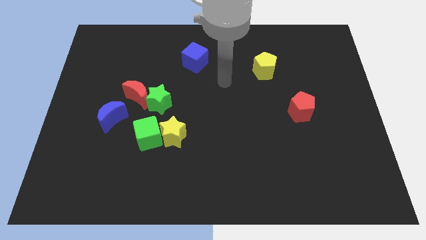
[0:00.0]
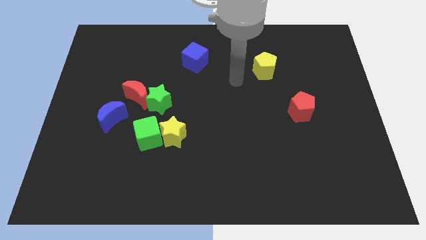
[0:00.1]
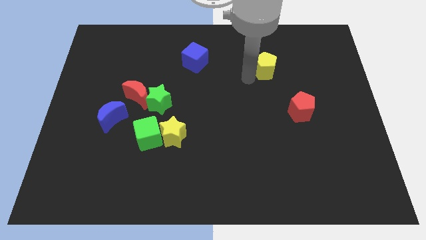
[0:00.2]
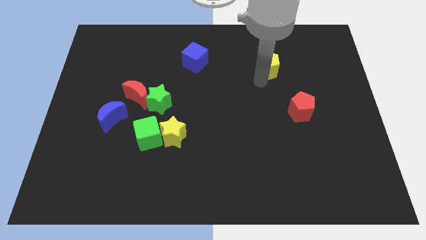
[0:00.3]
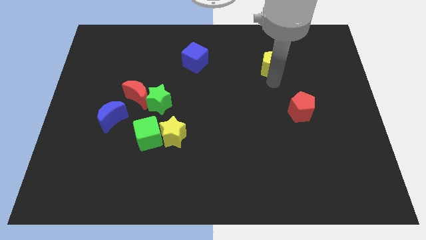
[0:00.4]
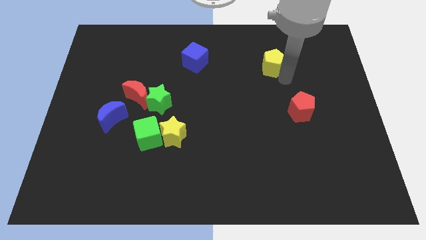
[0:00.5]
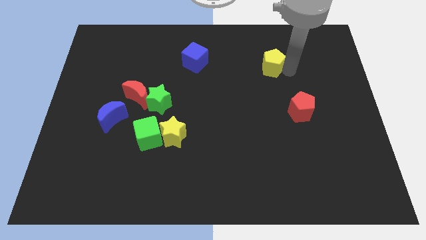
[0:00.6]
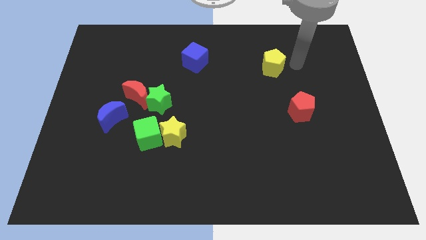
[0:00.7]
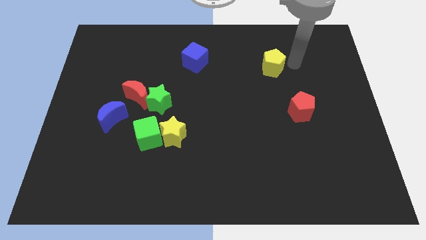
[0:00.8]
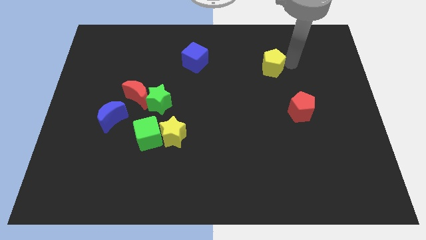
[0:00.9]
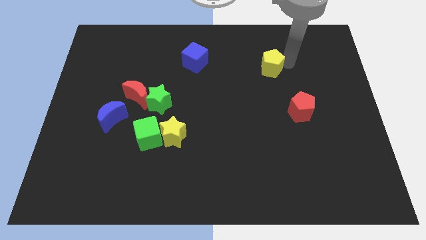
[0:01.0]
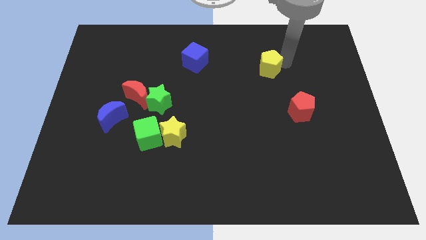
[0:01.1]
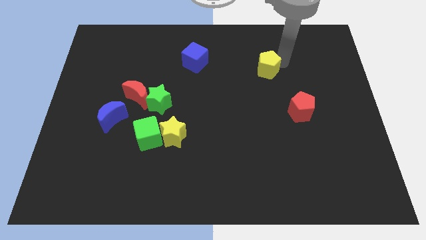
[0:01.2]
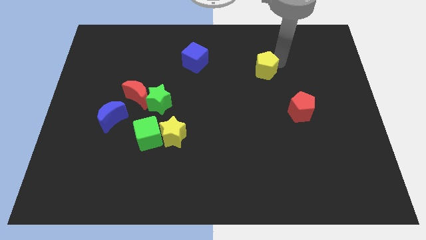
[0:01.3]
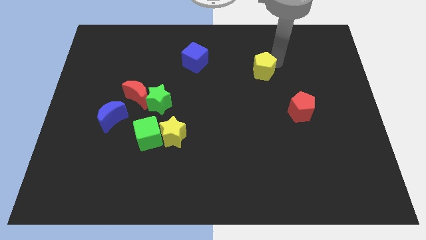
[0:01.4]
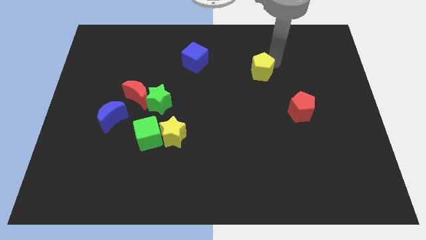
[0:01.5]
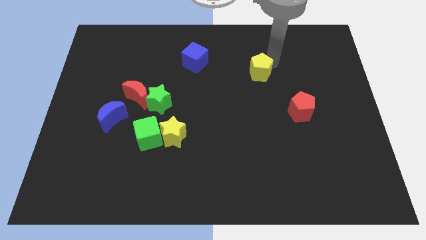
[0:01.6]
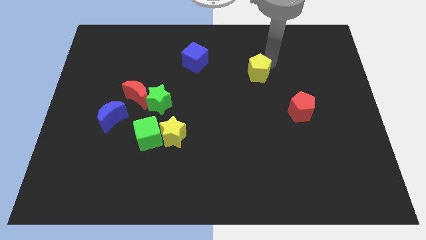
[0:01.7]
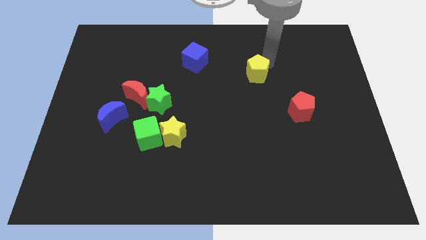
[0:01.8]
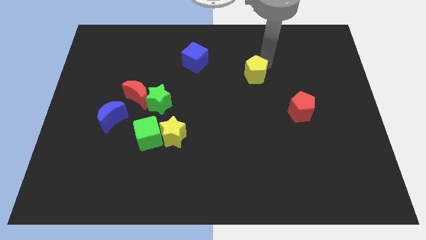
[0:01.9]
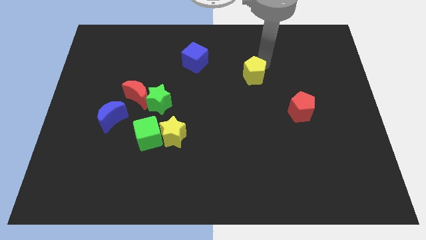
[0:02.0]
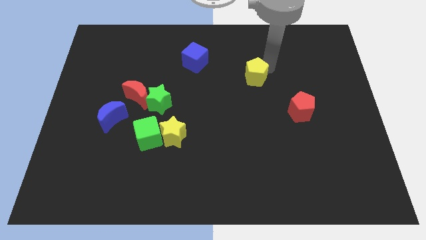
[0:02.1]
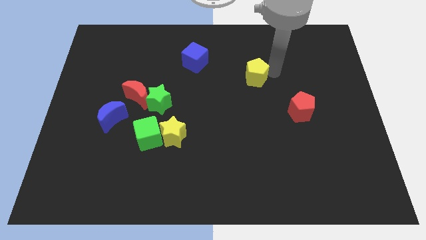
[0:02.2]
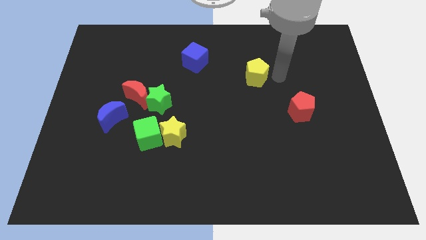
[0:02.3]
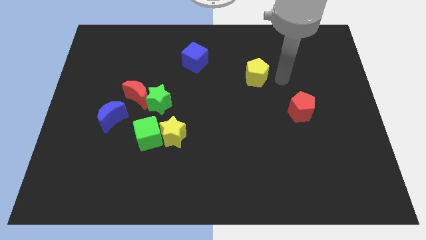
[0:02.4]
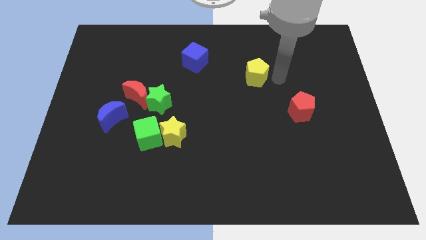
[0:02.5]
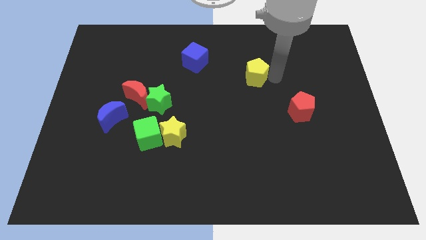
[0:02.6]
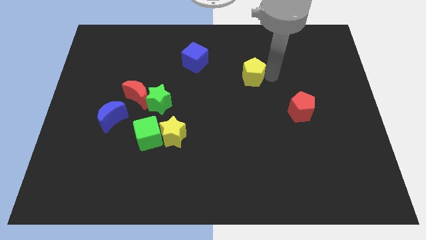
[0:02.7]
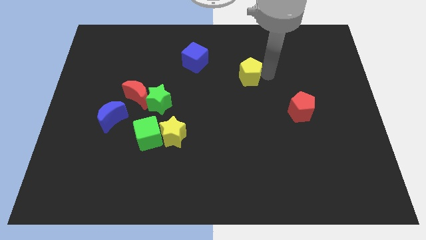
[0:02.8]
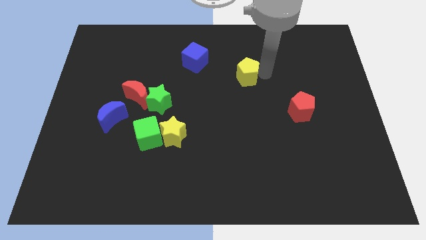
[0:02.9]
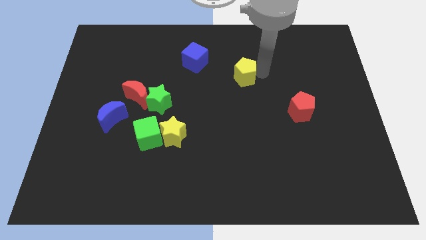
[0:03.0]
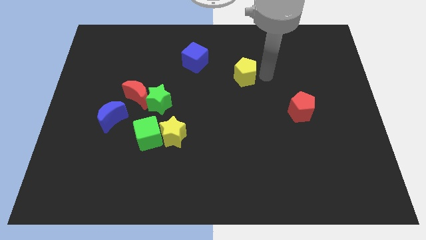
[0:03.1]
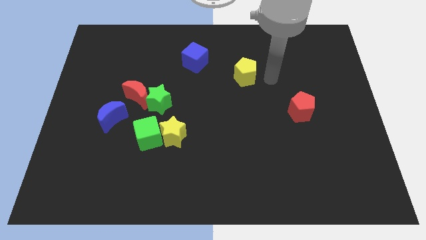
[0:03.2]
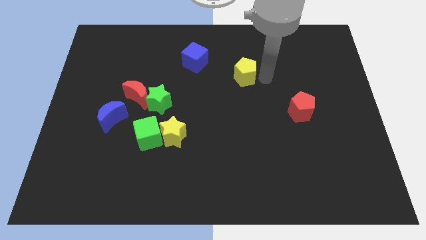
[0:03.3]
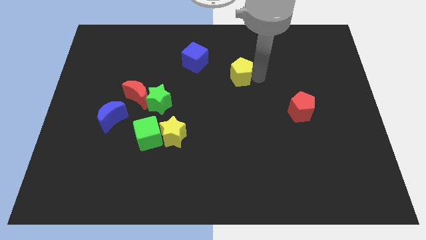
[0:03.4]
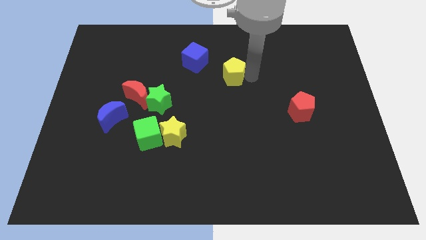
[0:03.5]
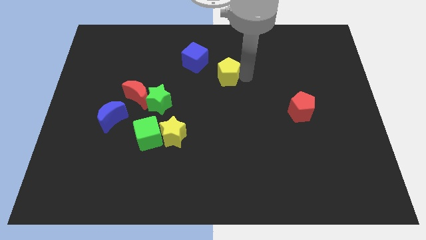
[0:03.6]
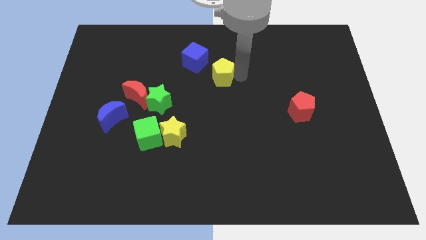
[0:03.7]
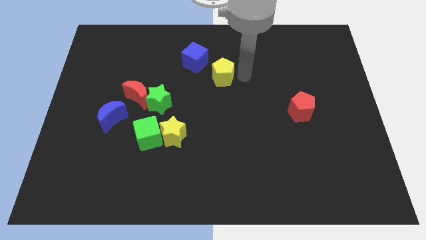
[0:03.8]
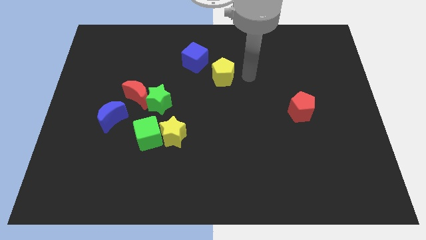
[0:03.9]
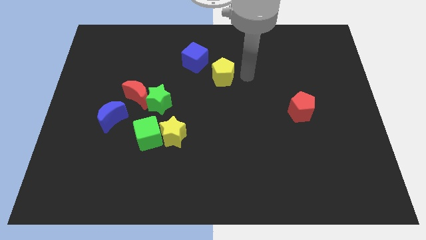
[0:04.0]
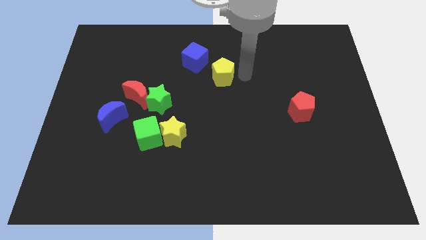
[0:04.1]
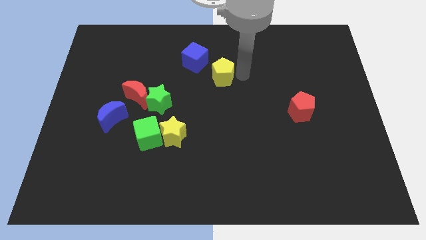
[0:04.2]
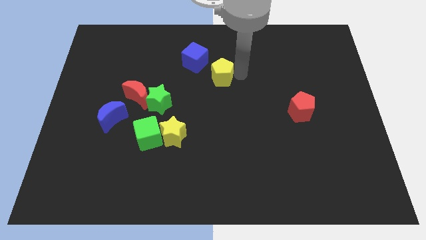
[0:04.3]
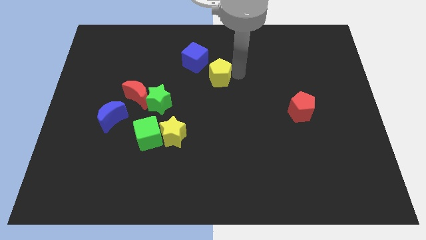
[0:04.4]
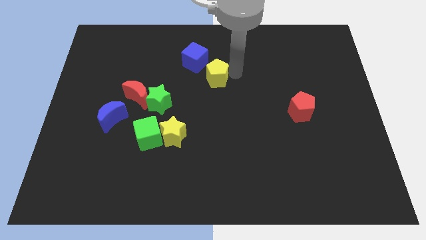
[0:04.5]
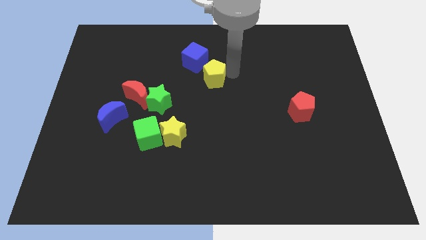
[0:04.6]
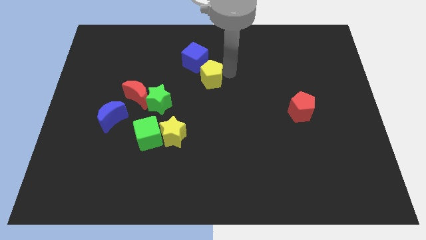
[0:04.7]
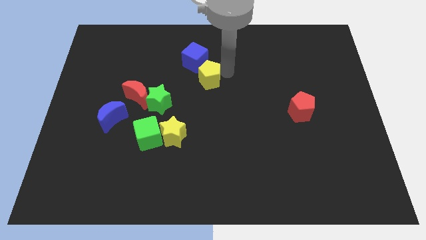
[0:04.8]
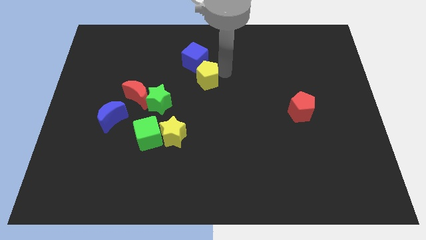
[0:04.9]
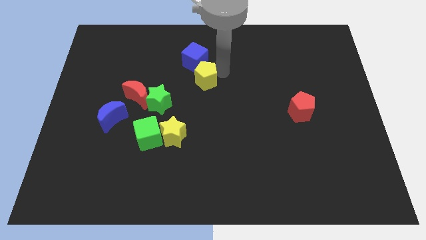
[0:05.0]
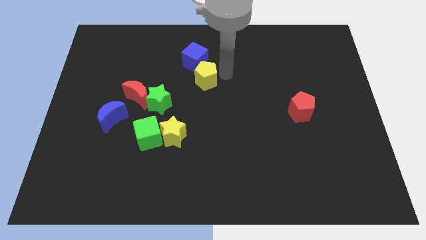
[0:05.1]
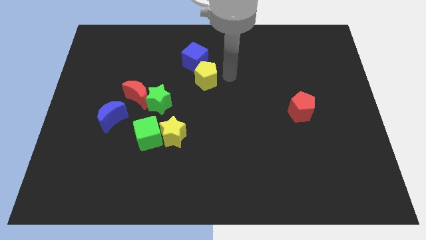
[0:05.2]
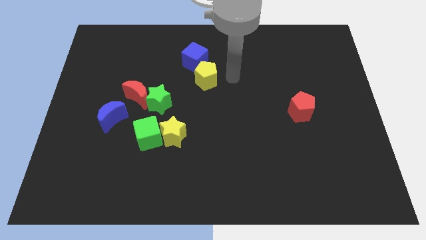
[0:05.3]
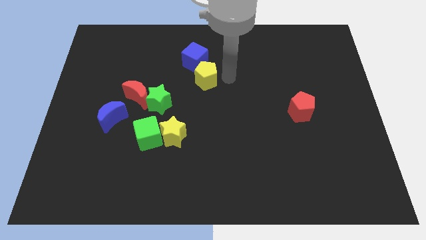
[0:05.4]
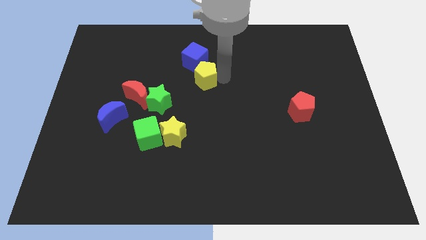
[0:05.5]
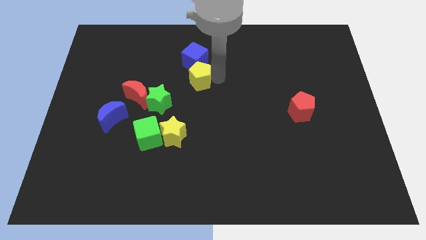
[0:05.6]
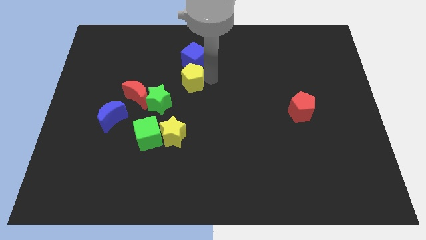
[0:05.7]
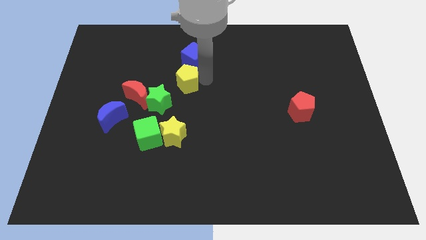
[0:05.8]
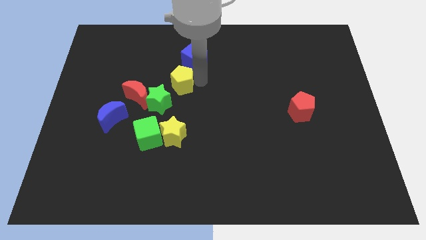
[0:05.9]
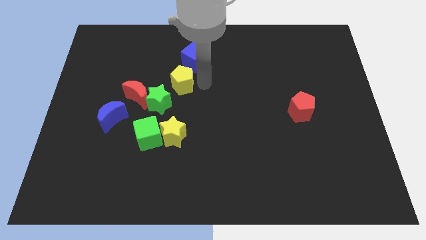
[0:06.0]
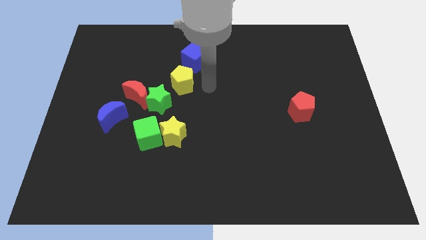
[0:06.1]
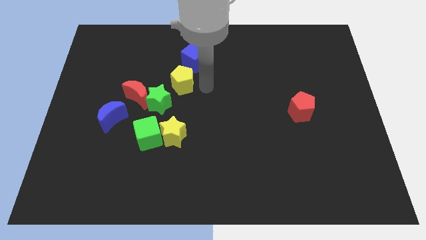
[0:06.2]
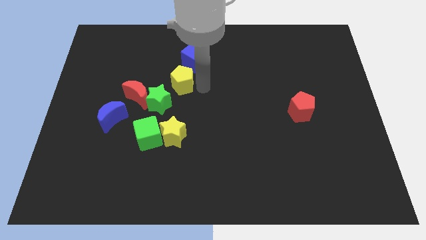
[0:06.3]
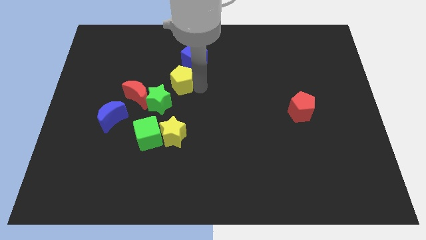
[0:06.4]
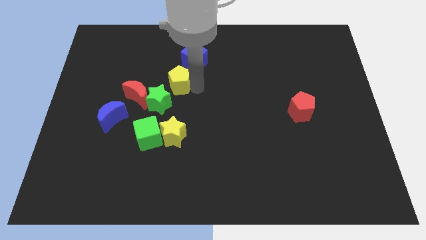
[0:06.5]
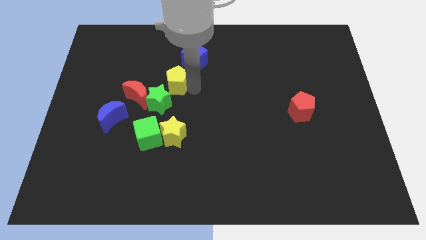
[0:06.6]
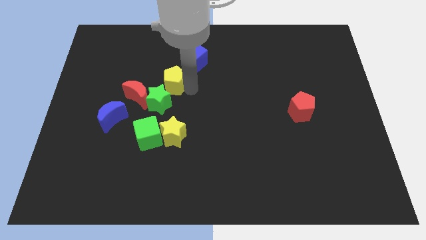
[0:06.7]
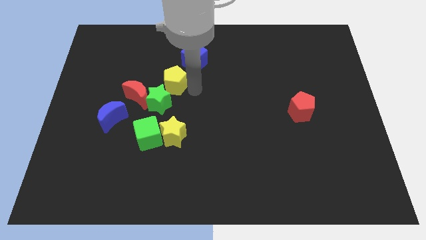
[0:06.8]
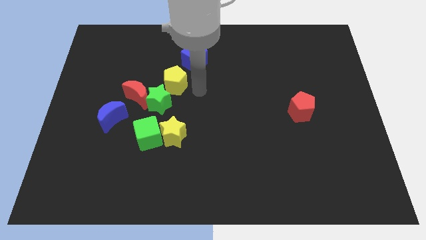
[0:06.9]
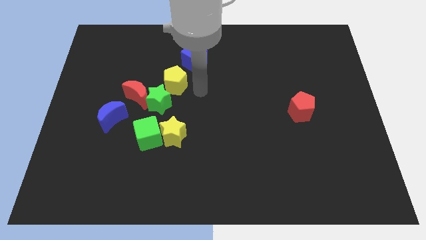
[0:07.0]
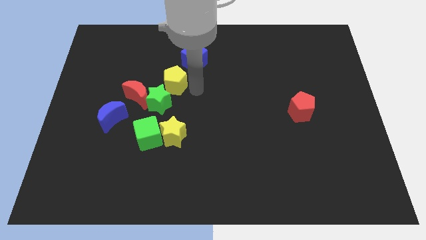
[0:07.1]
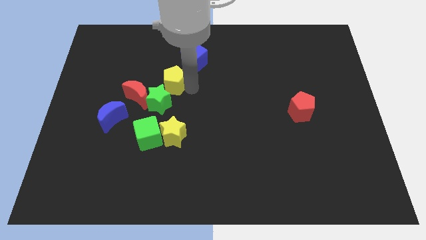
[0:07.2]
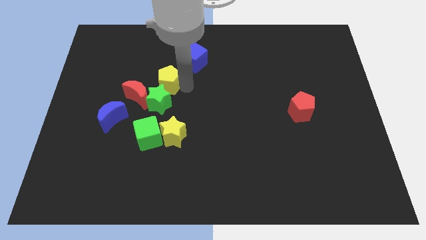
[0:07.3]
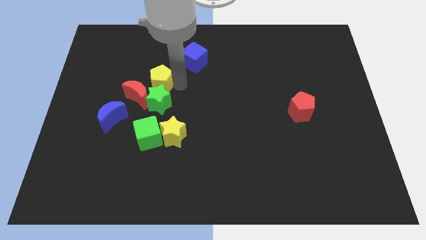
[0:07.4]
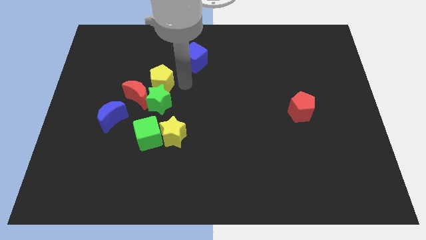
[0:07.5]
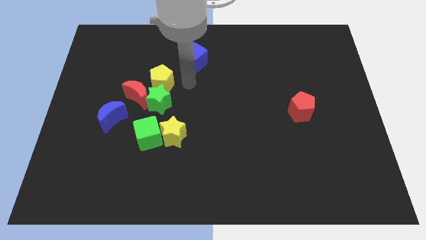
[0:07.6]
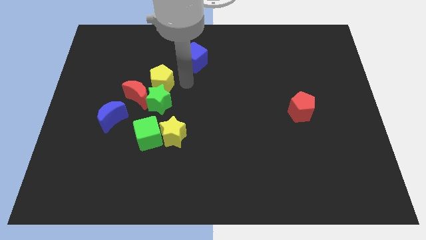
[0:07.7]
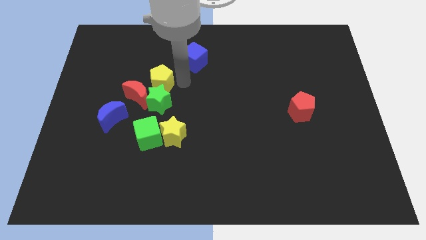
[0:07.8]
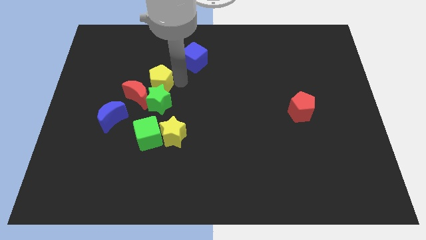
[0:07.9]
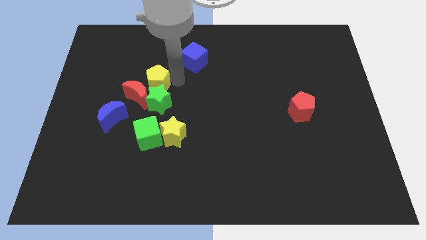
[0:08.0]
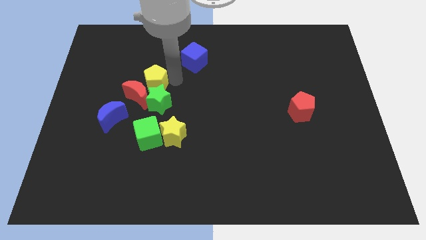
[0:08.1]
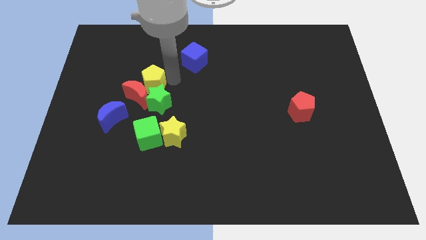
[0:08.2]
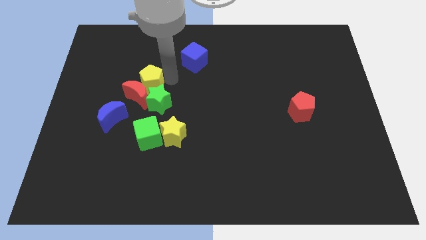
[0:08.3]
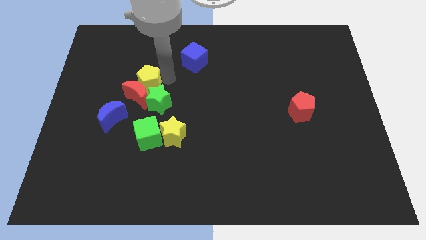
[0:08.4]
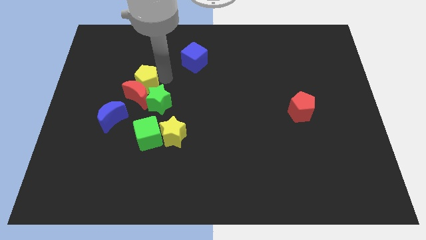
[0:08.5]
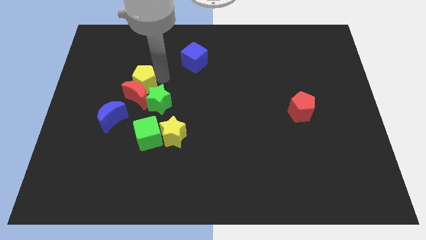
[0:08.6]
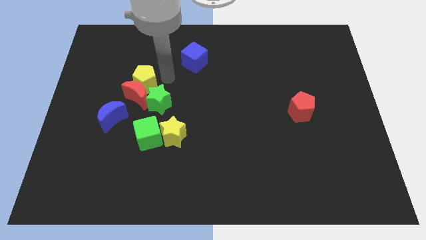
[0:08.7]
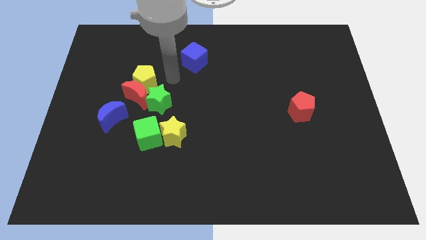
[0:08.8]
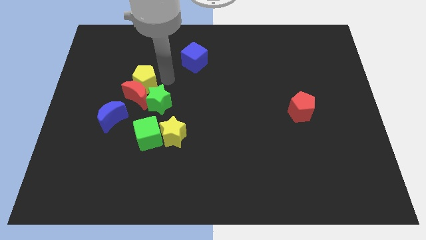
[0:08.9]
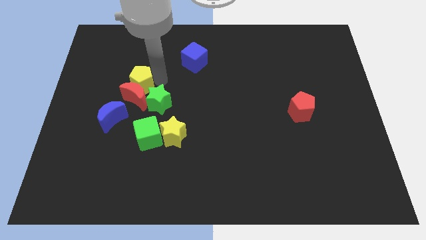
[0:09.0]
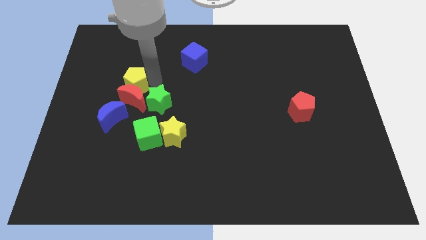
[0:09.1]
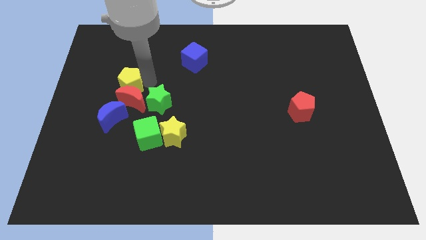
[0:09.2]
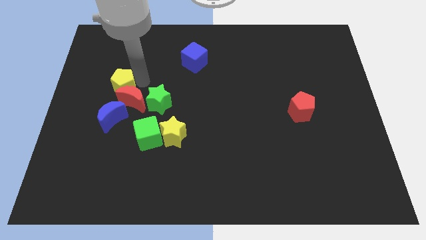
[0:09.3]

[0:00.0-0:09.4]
slide the yellow pentagon just left of the green star
